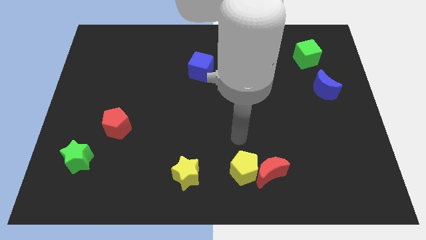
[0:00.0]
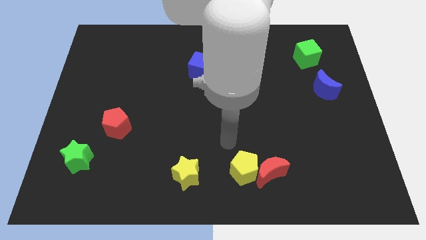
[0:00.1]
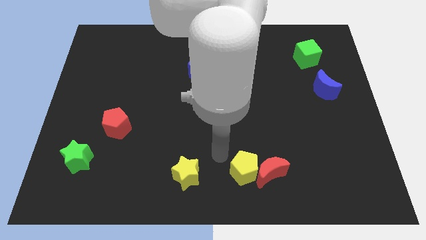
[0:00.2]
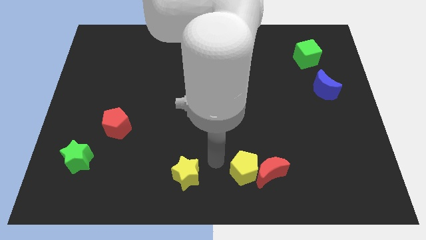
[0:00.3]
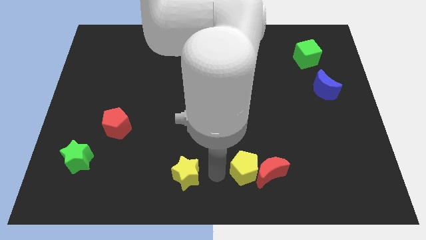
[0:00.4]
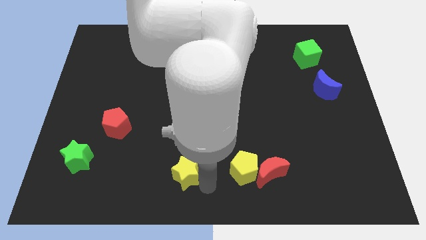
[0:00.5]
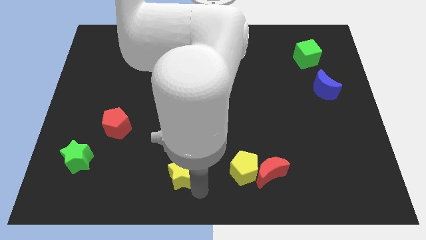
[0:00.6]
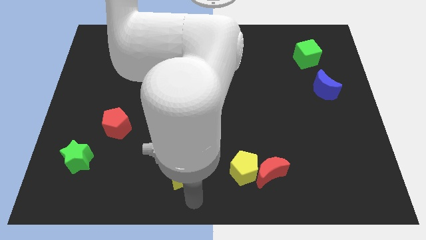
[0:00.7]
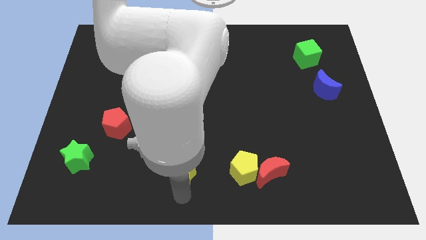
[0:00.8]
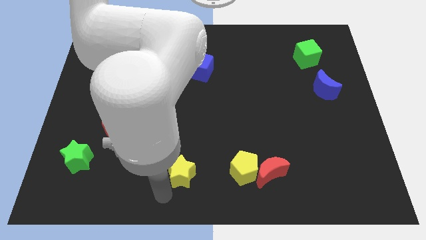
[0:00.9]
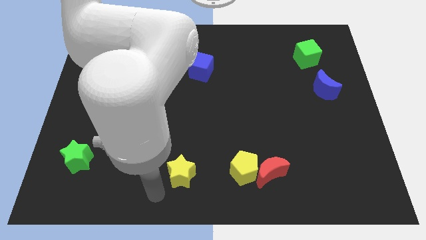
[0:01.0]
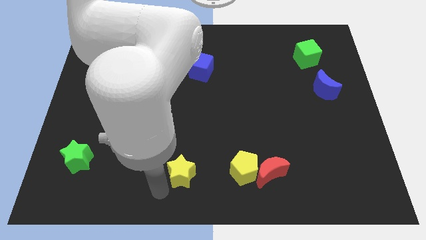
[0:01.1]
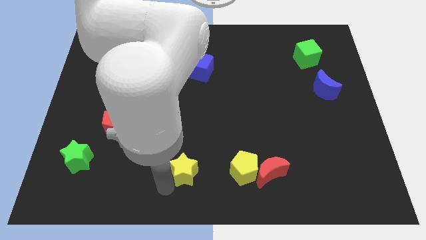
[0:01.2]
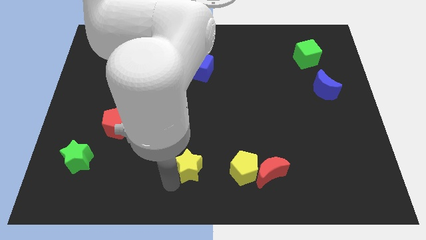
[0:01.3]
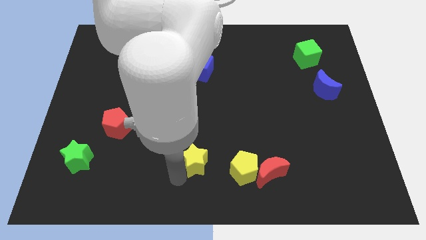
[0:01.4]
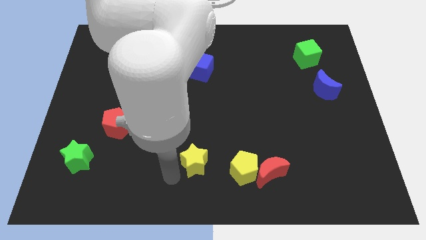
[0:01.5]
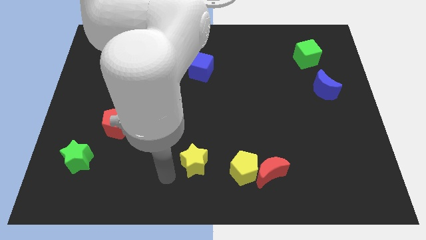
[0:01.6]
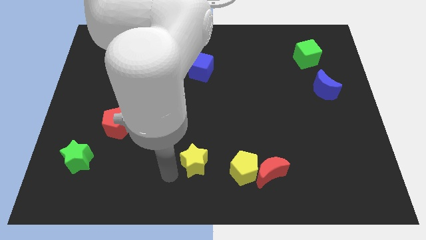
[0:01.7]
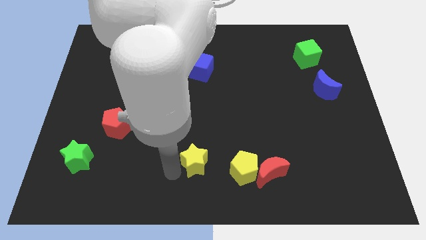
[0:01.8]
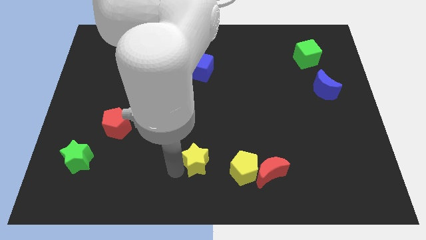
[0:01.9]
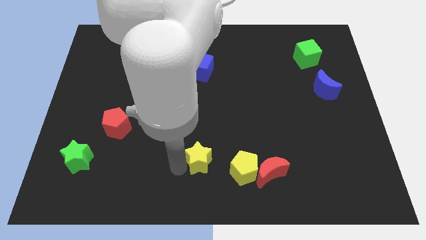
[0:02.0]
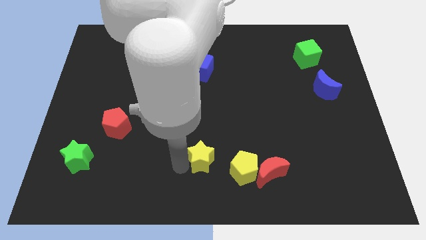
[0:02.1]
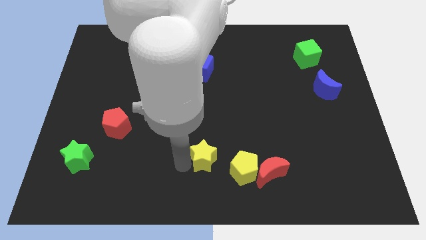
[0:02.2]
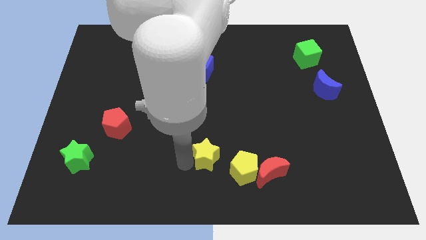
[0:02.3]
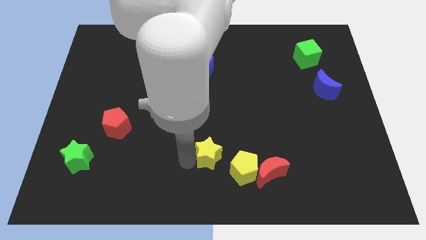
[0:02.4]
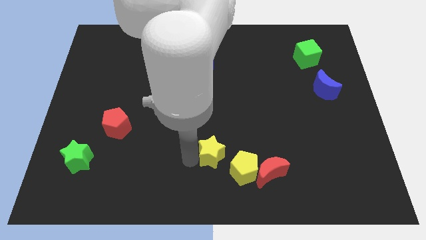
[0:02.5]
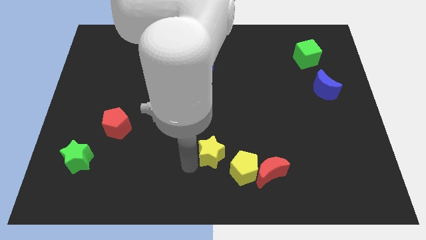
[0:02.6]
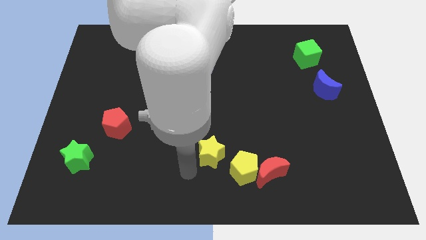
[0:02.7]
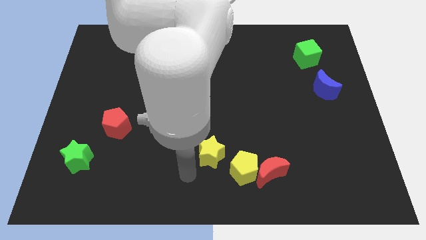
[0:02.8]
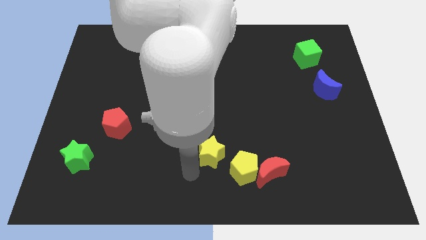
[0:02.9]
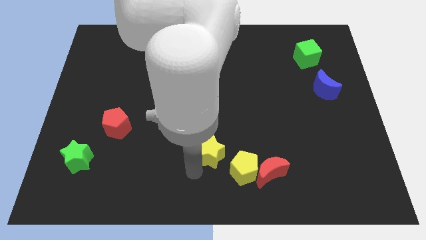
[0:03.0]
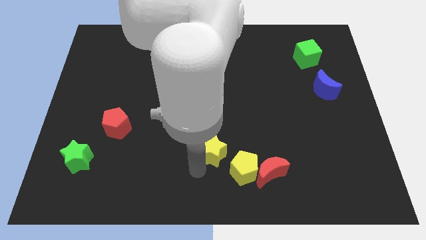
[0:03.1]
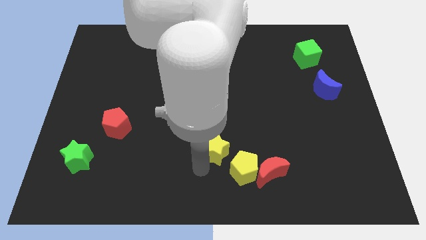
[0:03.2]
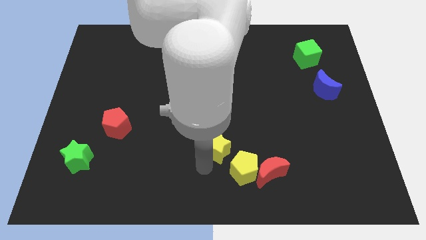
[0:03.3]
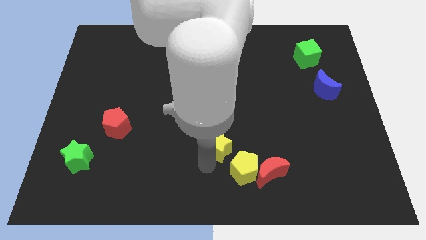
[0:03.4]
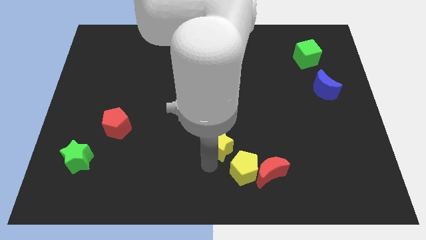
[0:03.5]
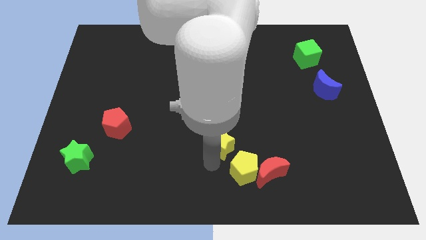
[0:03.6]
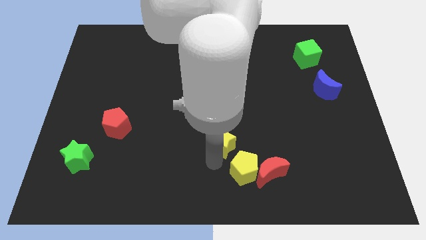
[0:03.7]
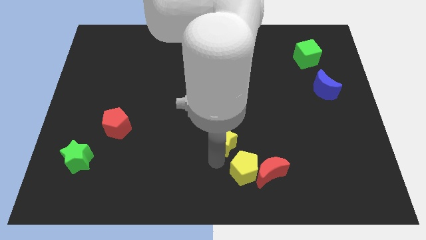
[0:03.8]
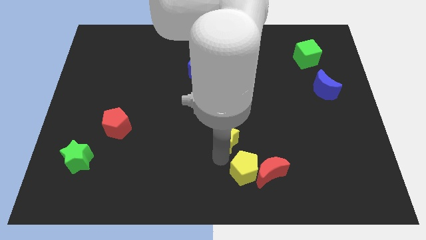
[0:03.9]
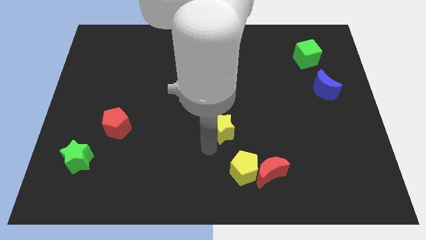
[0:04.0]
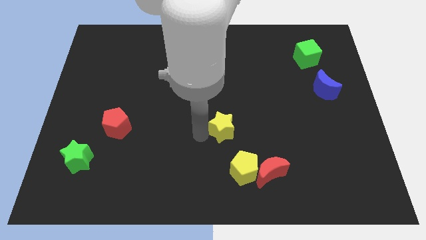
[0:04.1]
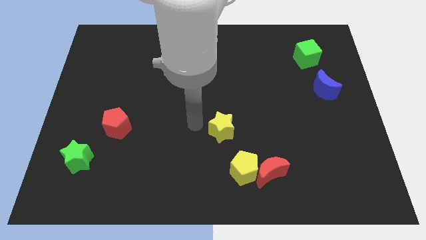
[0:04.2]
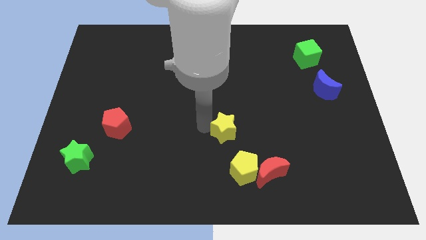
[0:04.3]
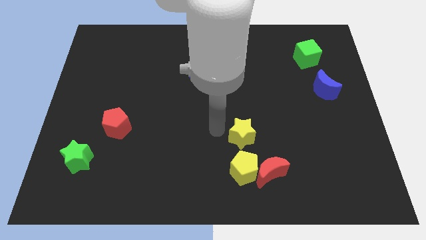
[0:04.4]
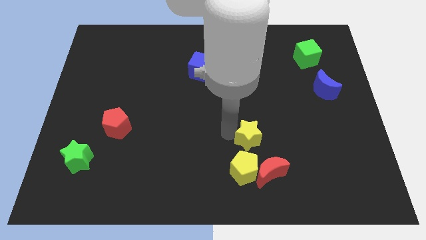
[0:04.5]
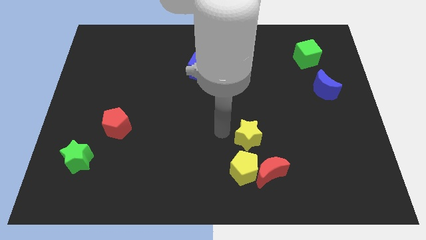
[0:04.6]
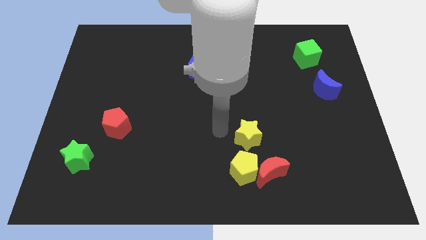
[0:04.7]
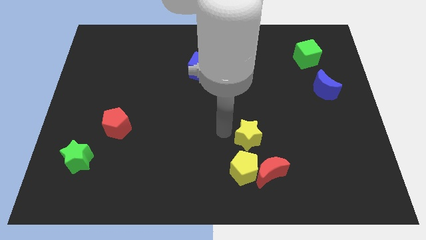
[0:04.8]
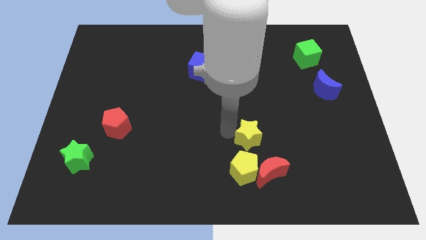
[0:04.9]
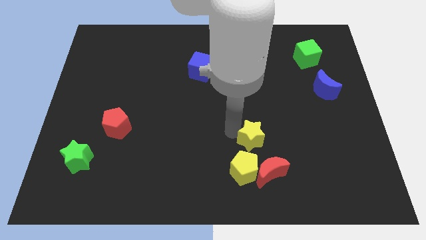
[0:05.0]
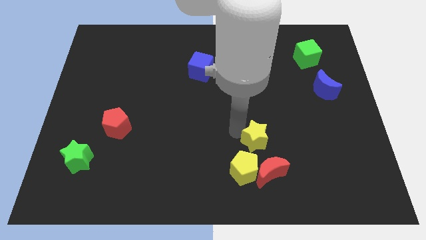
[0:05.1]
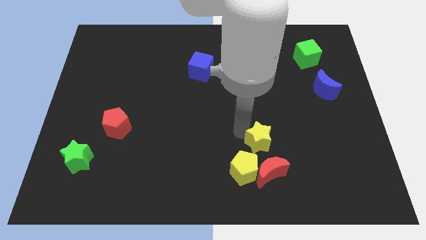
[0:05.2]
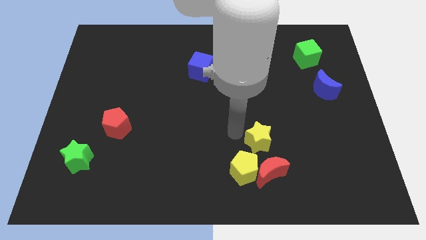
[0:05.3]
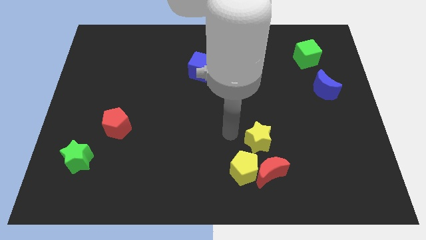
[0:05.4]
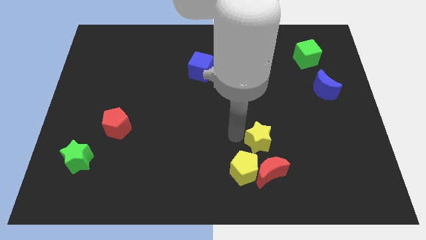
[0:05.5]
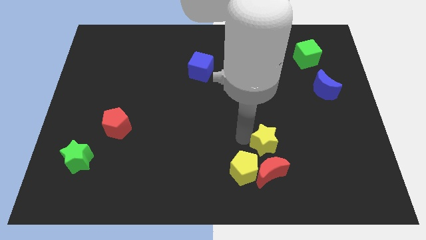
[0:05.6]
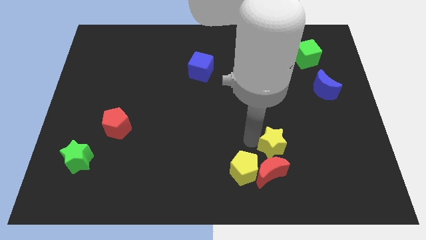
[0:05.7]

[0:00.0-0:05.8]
slide the yellow star to the top right side of the red moon

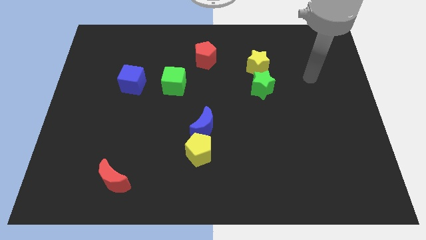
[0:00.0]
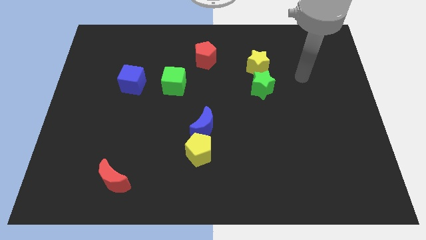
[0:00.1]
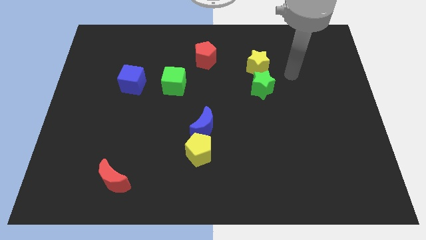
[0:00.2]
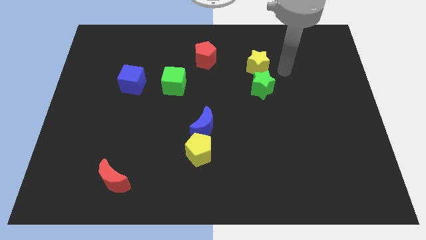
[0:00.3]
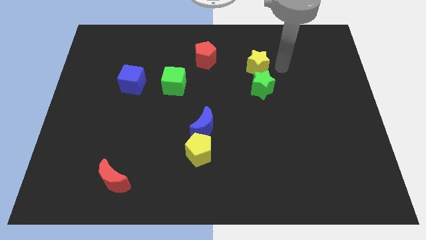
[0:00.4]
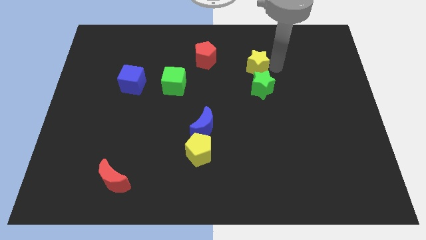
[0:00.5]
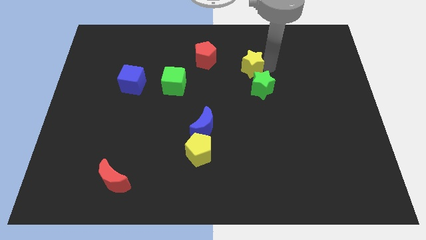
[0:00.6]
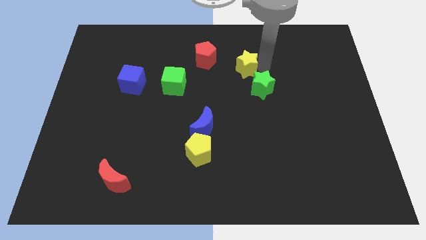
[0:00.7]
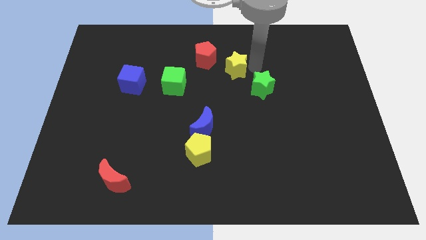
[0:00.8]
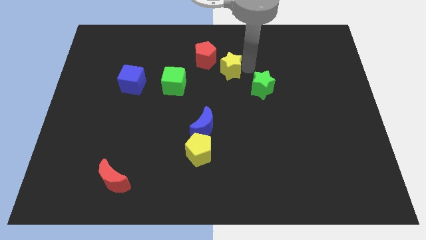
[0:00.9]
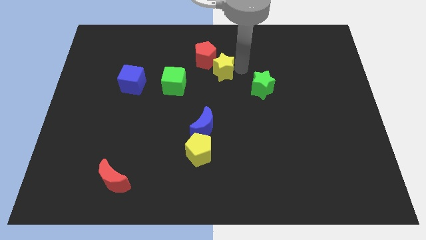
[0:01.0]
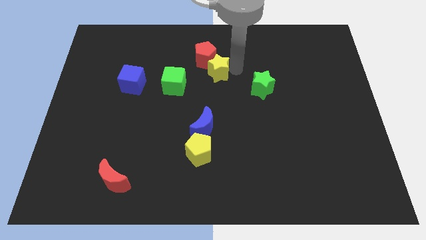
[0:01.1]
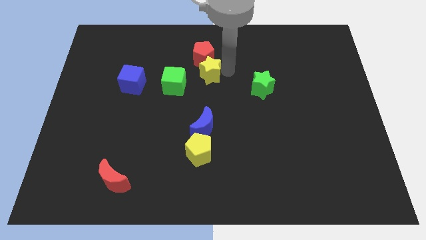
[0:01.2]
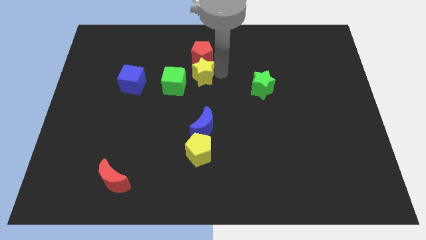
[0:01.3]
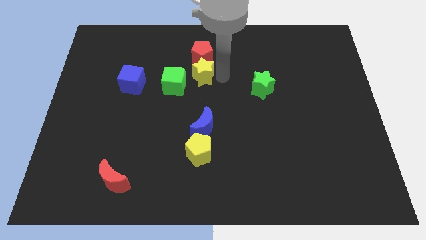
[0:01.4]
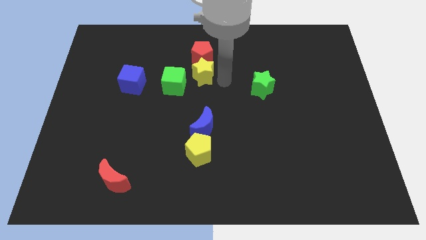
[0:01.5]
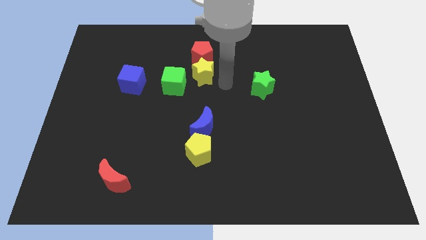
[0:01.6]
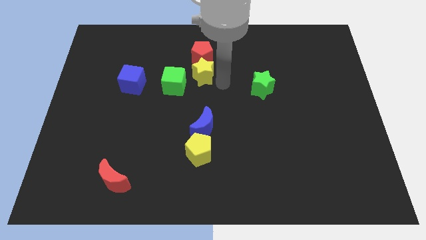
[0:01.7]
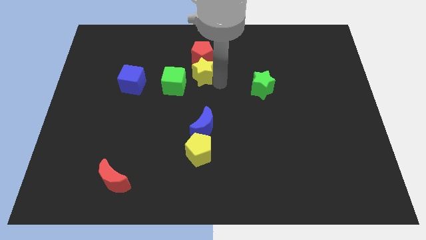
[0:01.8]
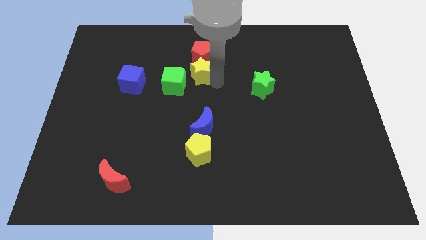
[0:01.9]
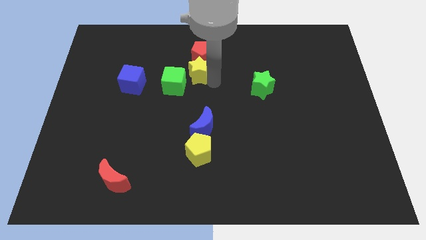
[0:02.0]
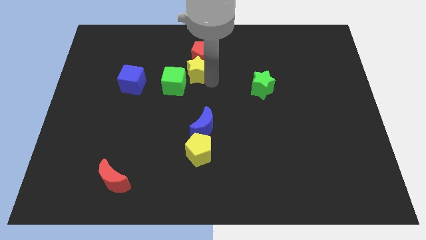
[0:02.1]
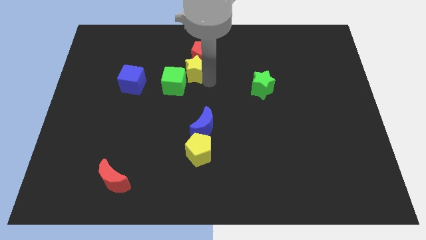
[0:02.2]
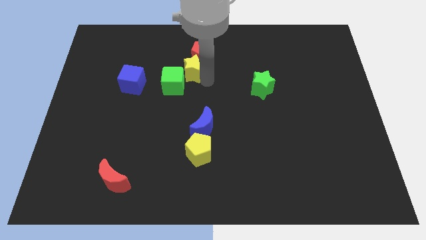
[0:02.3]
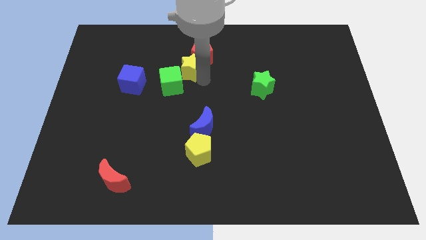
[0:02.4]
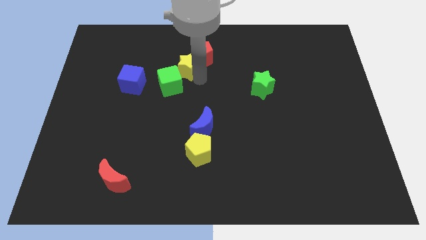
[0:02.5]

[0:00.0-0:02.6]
move the yellow star left of the red pentagon
